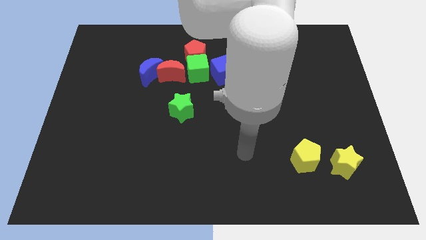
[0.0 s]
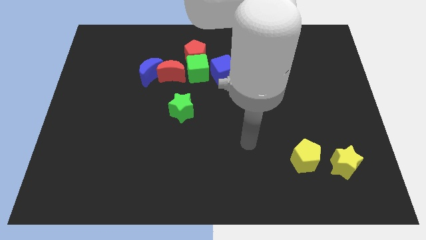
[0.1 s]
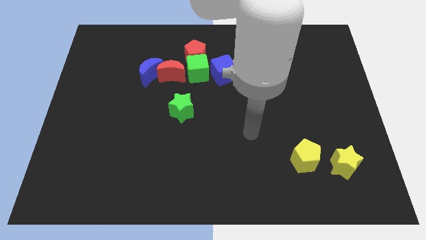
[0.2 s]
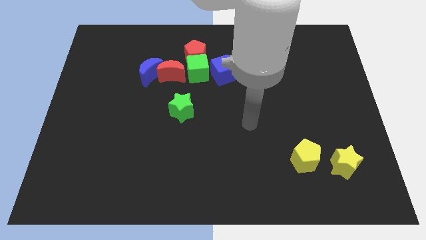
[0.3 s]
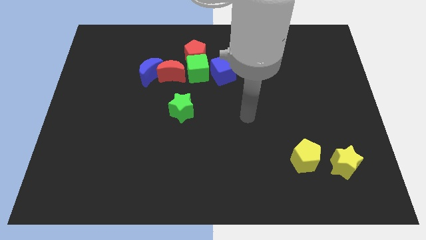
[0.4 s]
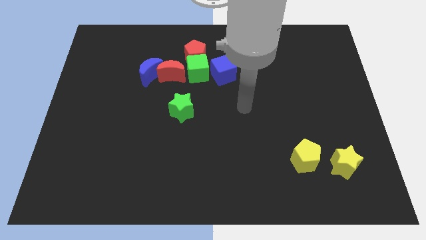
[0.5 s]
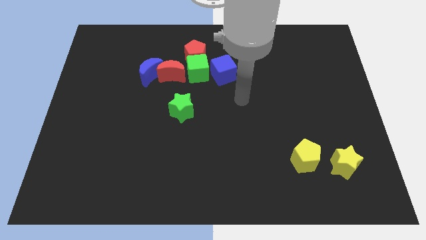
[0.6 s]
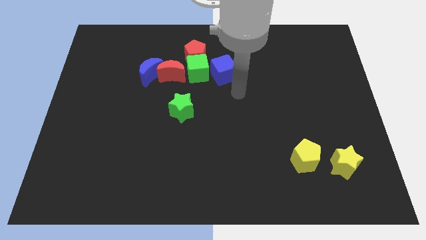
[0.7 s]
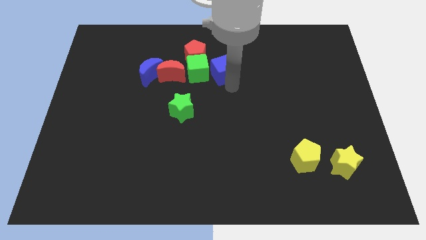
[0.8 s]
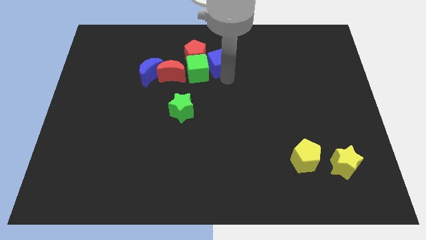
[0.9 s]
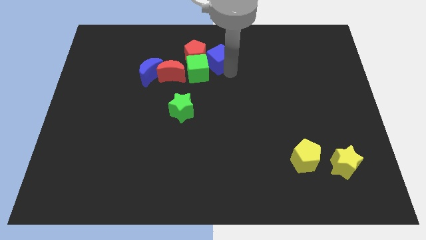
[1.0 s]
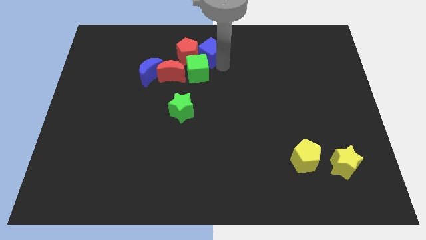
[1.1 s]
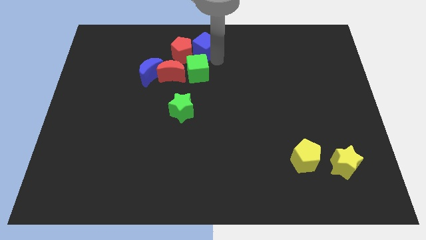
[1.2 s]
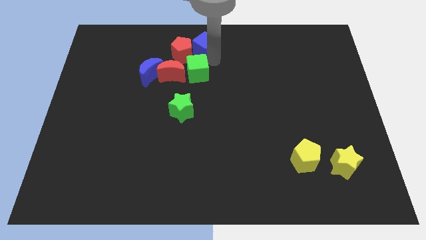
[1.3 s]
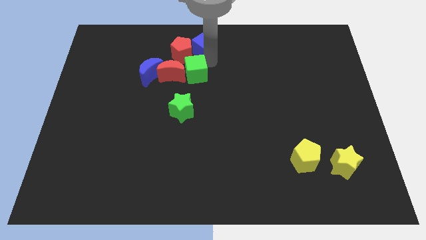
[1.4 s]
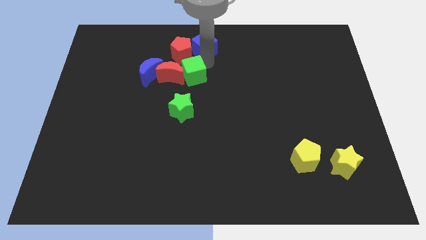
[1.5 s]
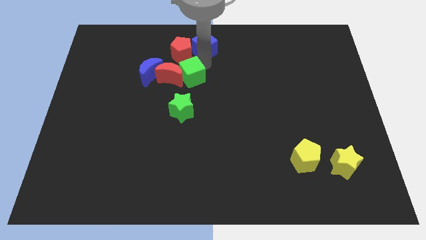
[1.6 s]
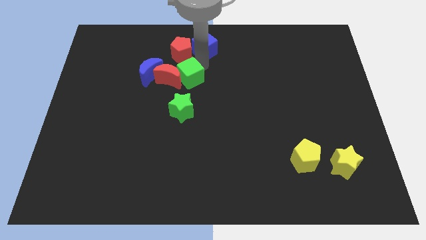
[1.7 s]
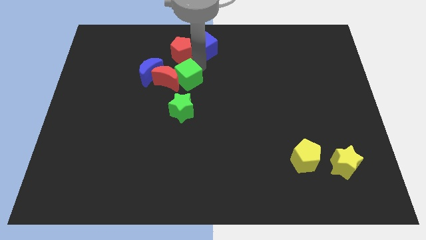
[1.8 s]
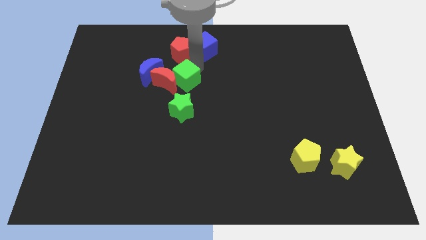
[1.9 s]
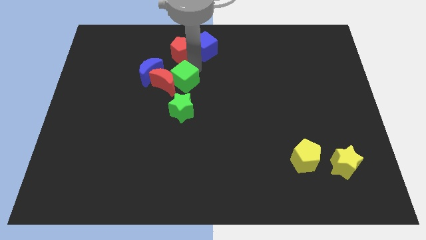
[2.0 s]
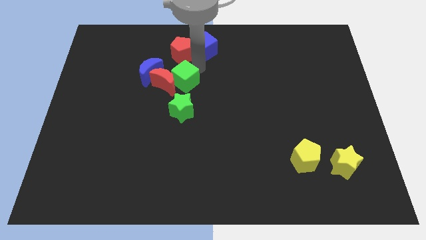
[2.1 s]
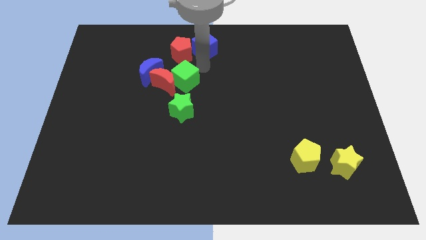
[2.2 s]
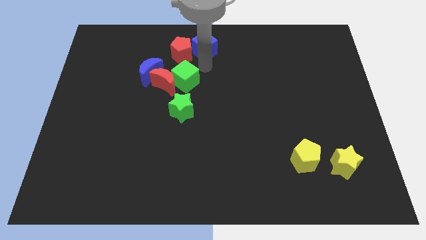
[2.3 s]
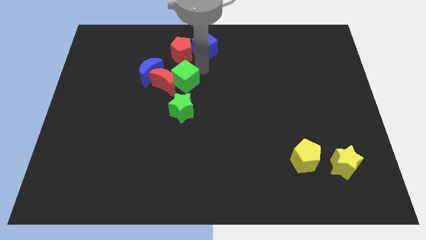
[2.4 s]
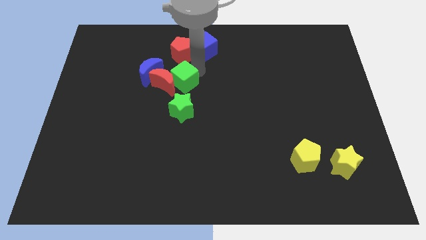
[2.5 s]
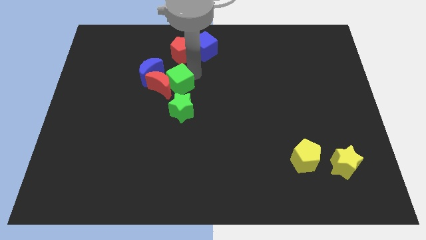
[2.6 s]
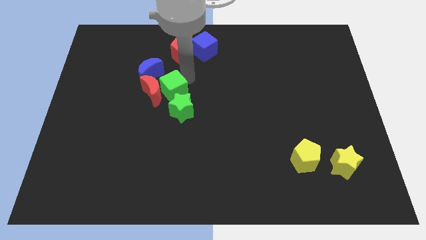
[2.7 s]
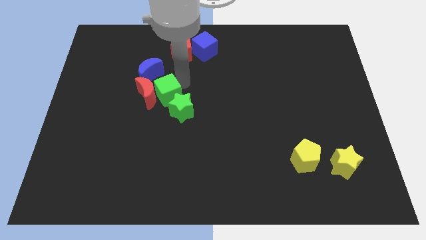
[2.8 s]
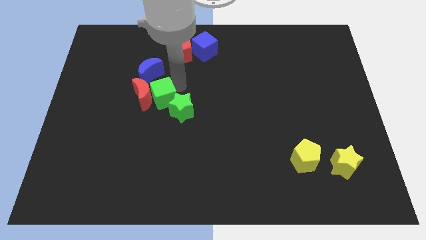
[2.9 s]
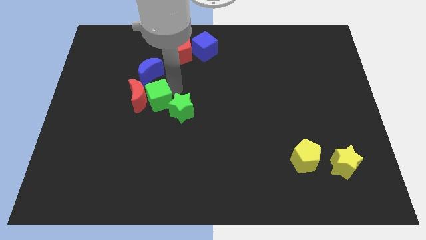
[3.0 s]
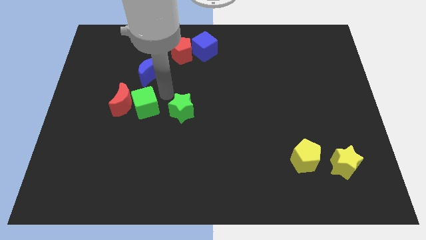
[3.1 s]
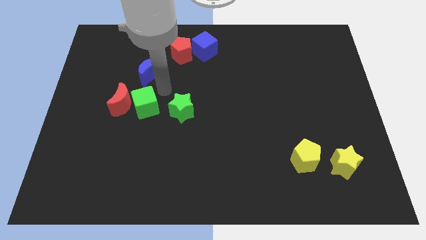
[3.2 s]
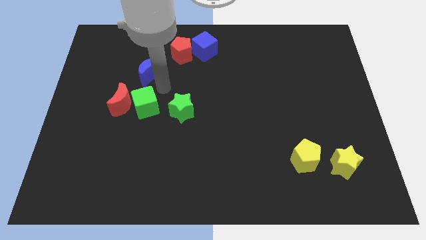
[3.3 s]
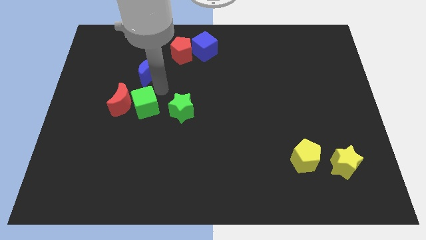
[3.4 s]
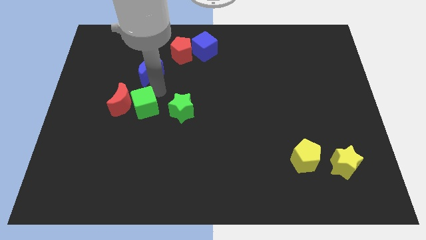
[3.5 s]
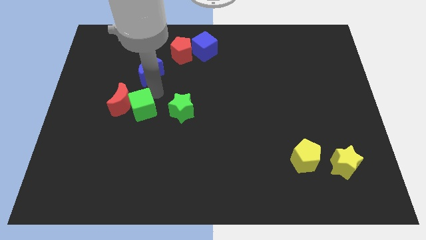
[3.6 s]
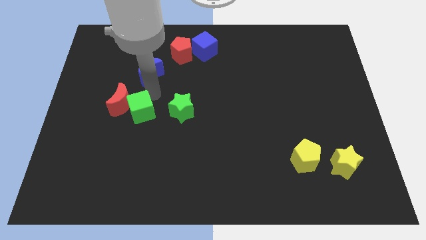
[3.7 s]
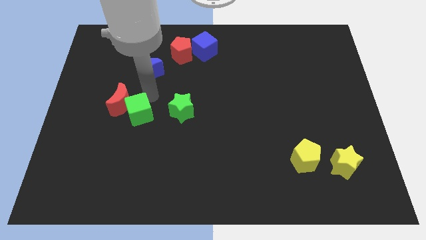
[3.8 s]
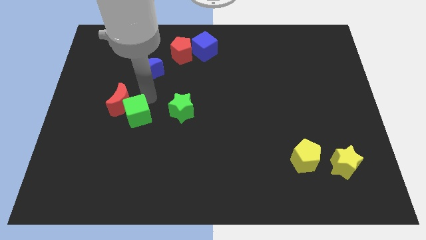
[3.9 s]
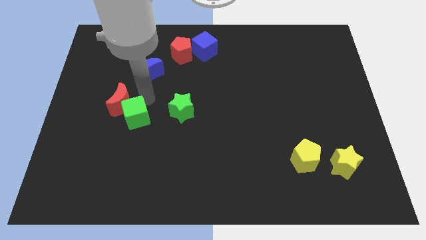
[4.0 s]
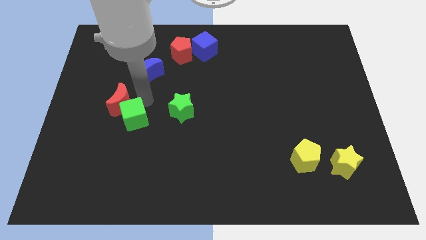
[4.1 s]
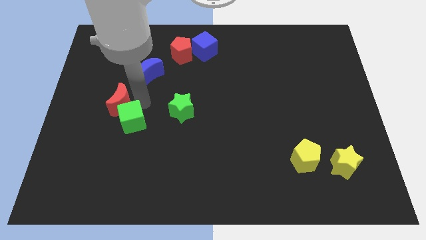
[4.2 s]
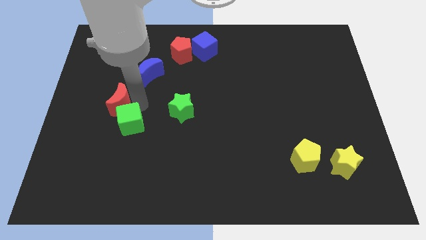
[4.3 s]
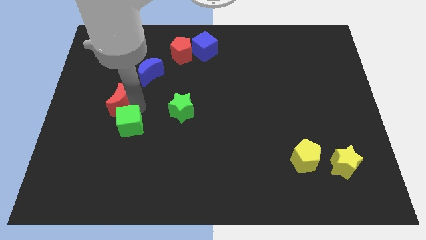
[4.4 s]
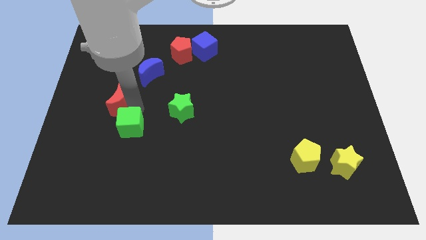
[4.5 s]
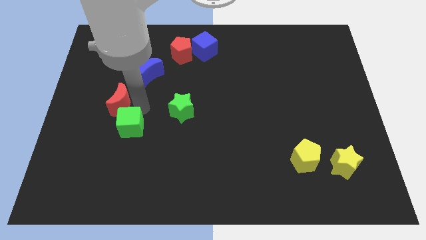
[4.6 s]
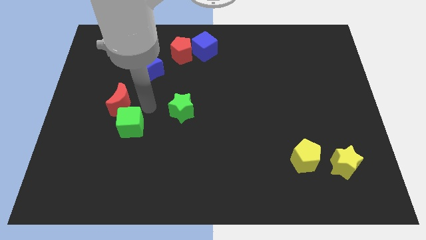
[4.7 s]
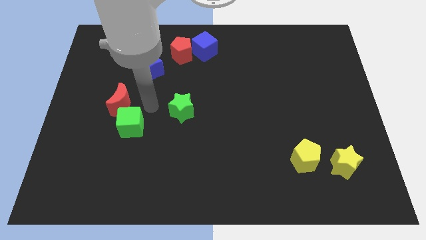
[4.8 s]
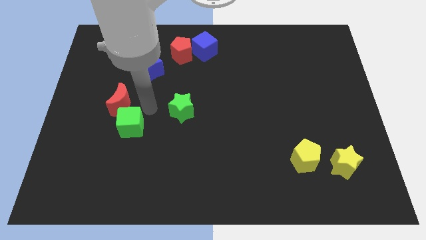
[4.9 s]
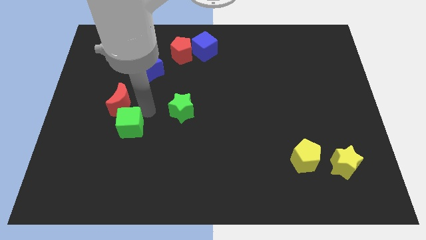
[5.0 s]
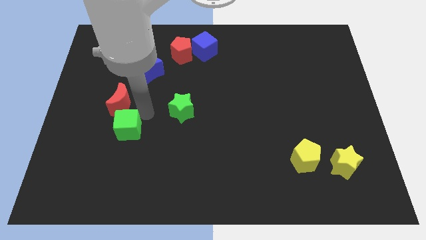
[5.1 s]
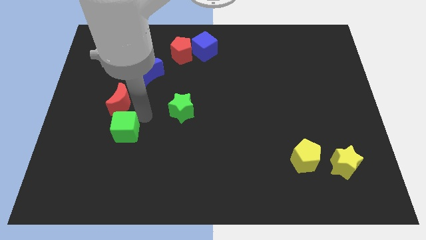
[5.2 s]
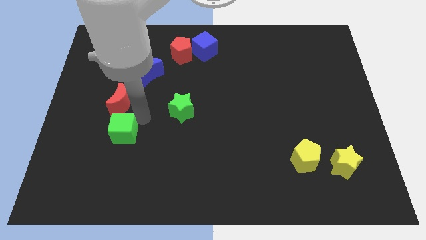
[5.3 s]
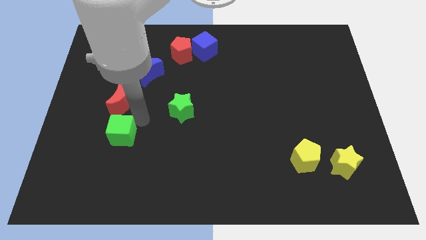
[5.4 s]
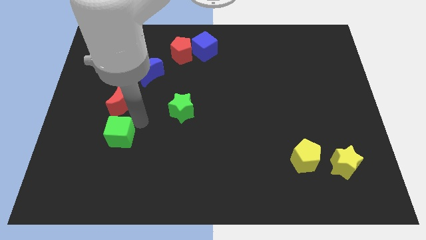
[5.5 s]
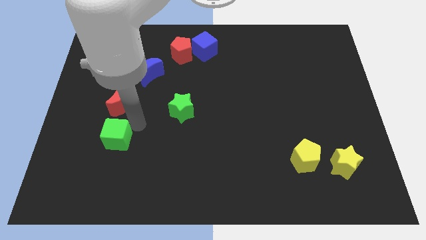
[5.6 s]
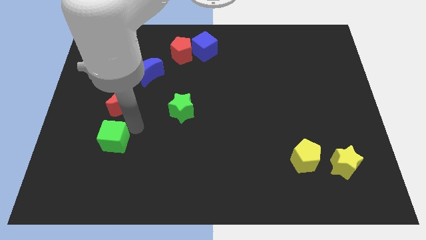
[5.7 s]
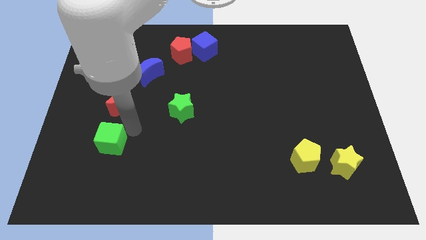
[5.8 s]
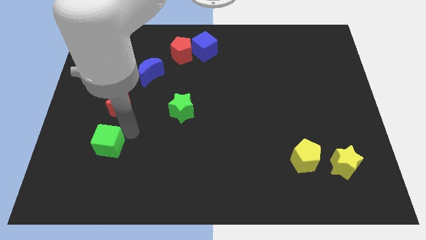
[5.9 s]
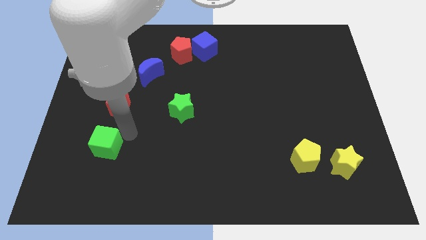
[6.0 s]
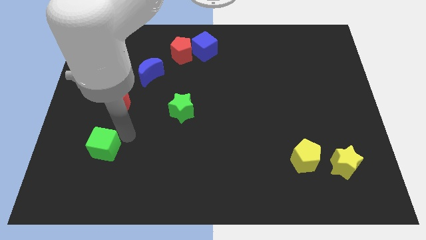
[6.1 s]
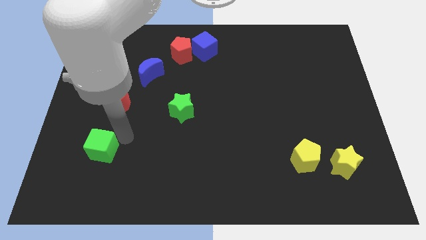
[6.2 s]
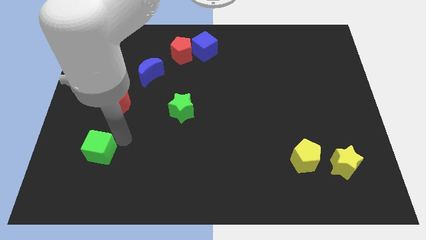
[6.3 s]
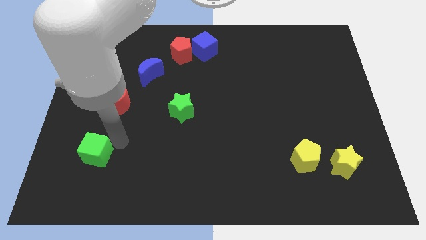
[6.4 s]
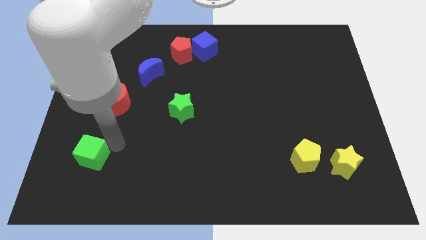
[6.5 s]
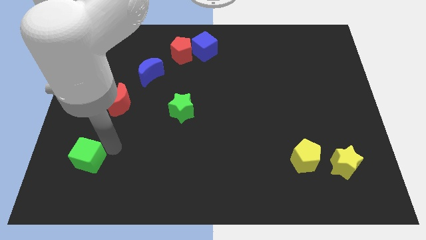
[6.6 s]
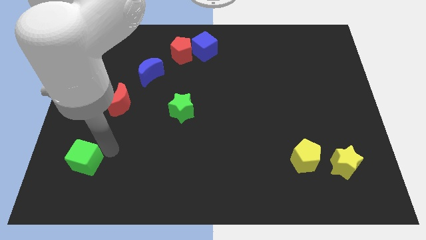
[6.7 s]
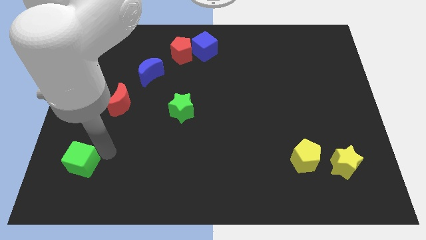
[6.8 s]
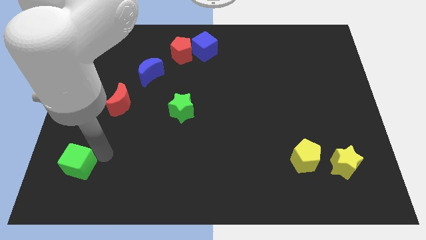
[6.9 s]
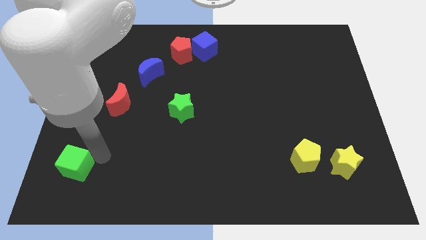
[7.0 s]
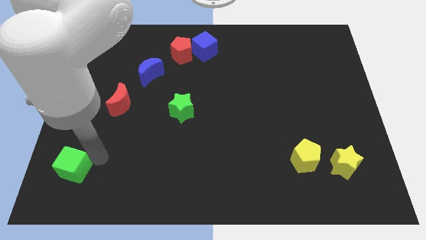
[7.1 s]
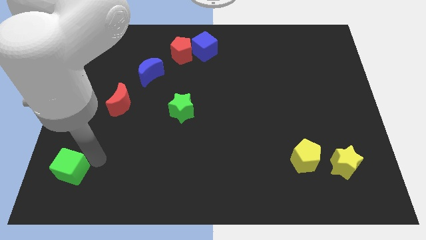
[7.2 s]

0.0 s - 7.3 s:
slide the green cube to the bottom left
